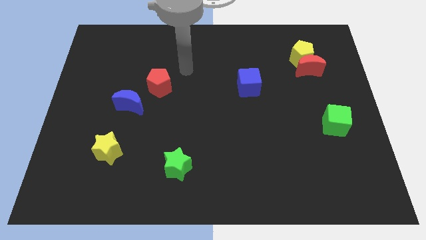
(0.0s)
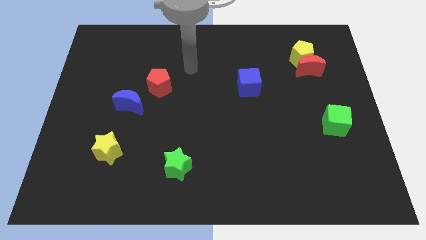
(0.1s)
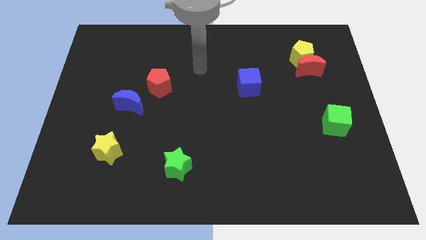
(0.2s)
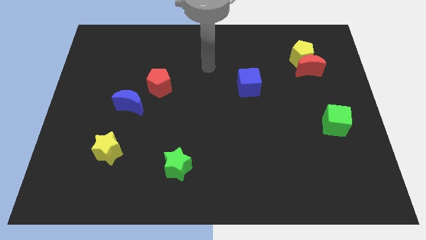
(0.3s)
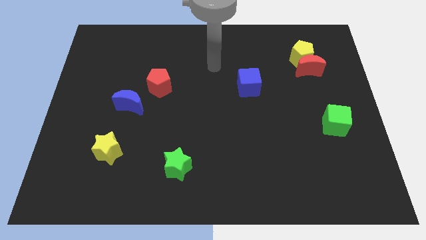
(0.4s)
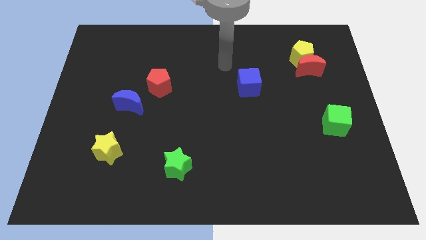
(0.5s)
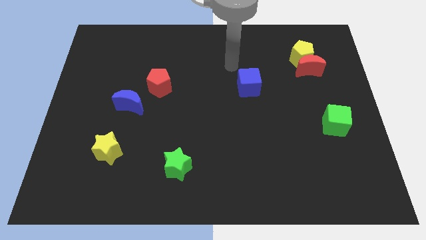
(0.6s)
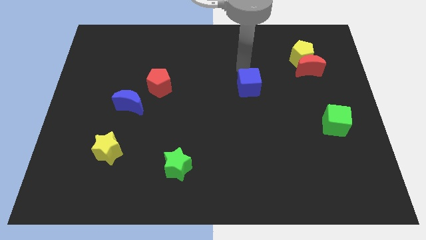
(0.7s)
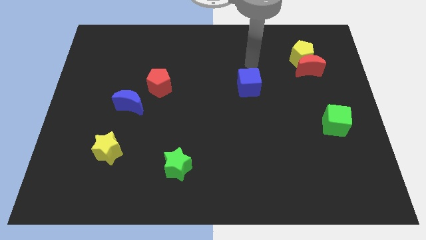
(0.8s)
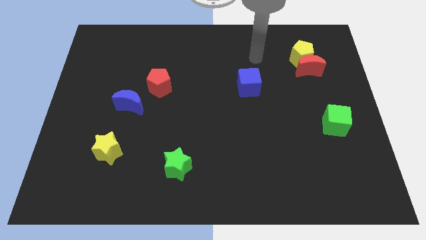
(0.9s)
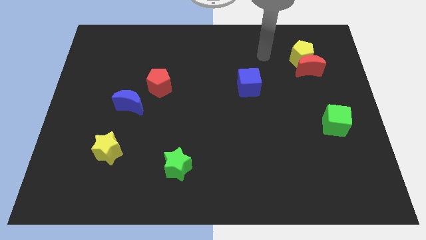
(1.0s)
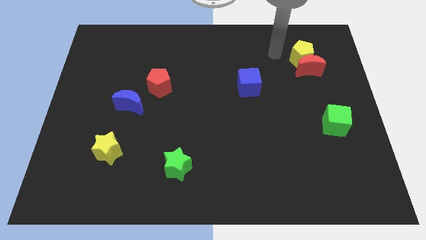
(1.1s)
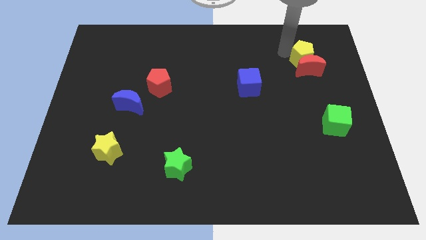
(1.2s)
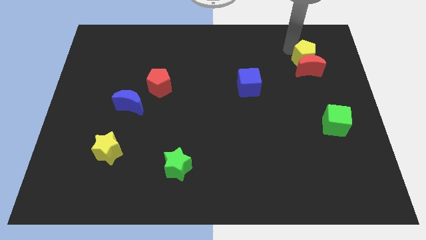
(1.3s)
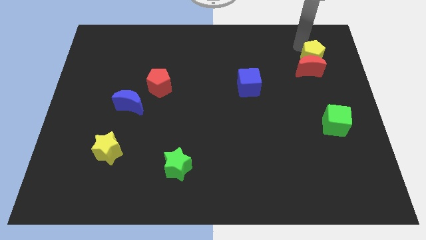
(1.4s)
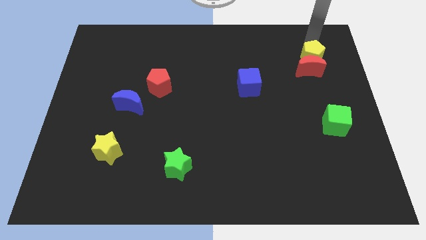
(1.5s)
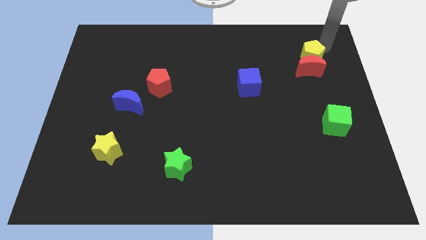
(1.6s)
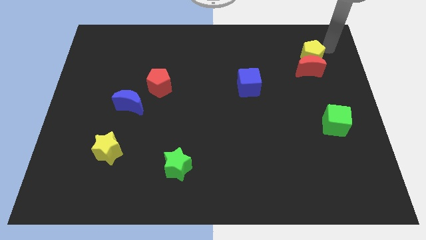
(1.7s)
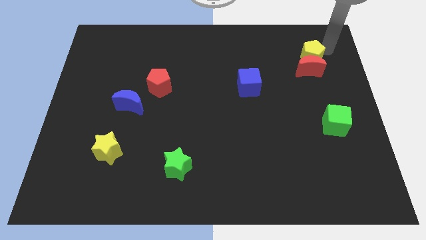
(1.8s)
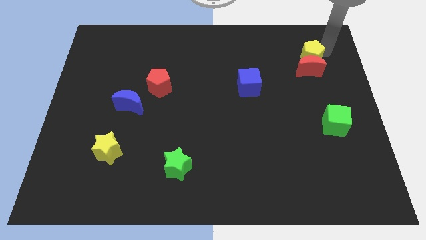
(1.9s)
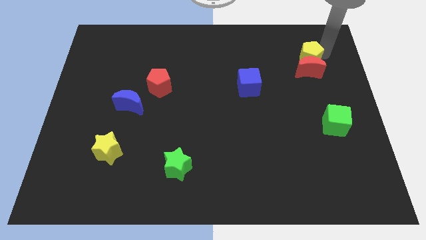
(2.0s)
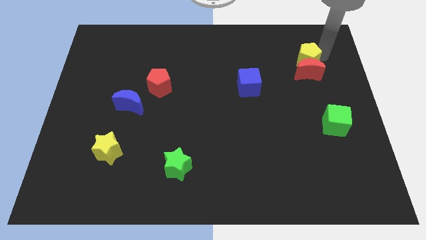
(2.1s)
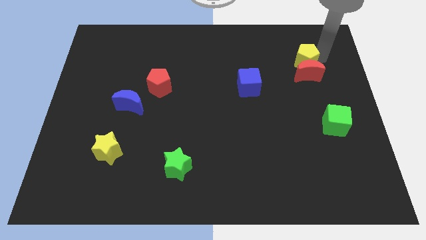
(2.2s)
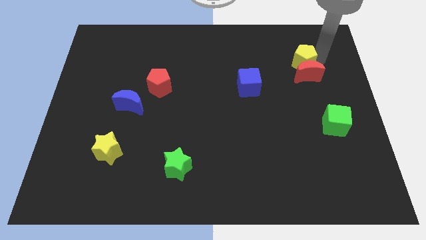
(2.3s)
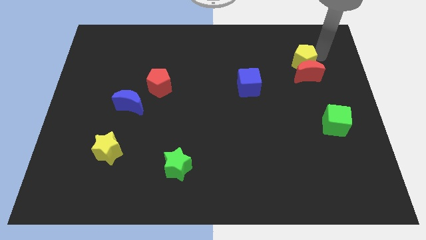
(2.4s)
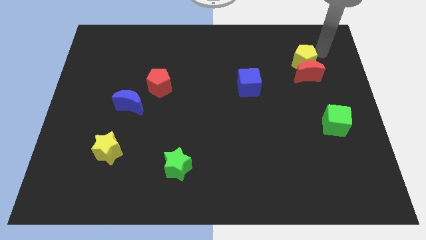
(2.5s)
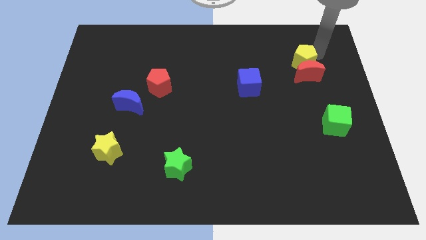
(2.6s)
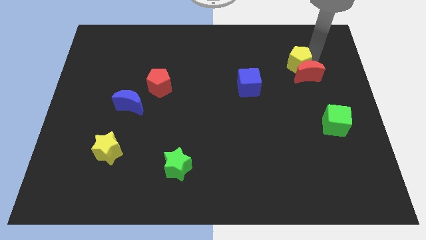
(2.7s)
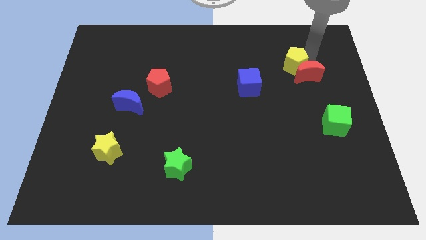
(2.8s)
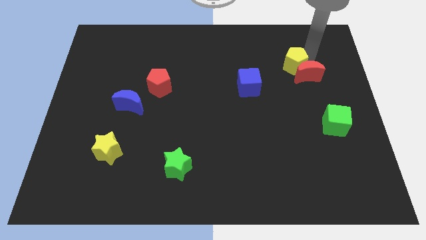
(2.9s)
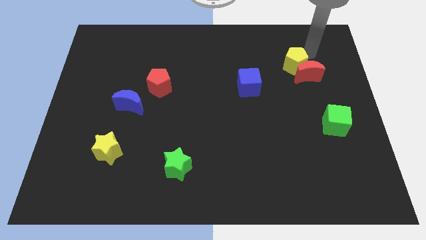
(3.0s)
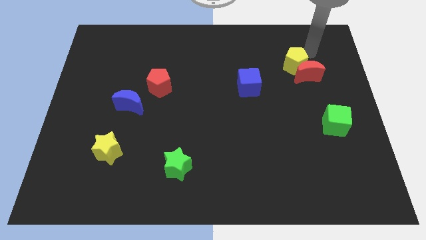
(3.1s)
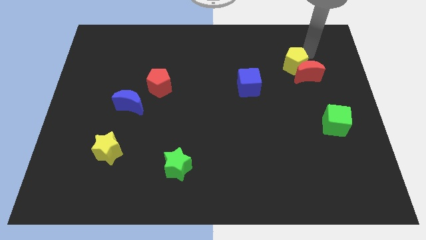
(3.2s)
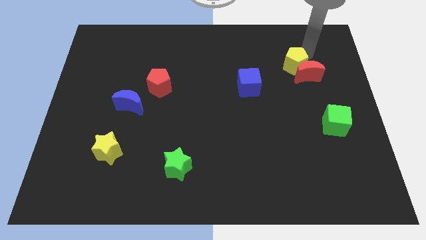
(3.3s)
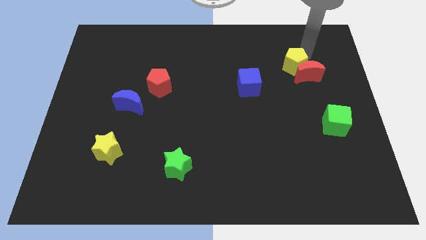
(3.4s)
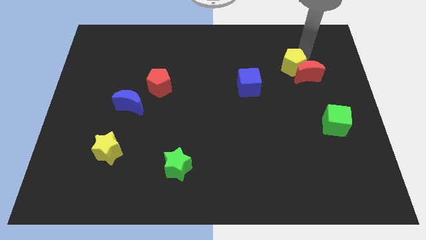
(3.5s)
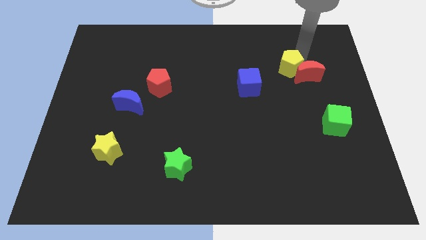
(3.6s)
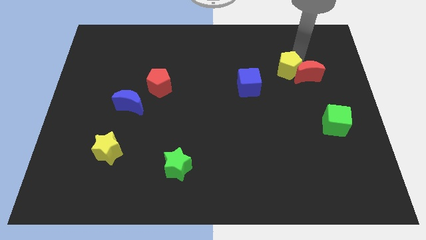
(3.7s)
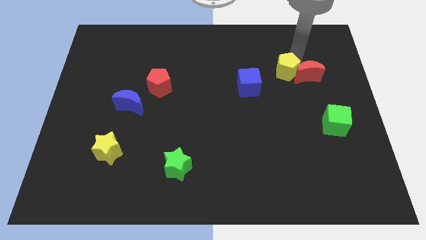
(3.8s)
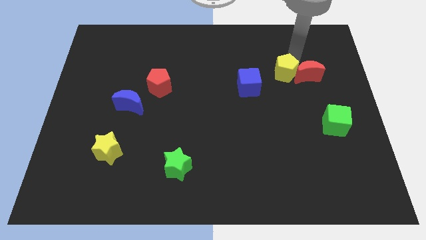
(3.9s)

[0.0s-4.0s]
push the yellow pentagon a bit downwards and left diagonally

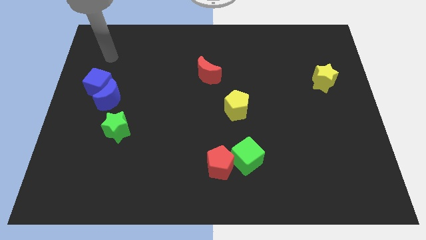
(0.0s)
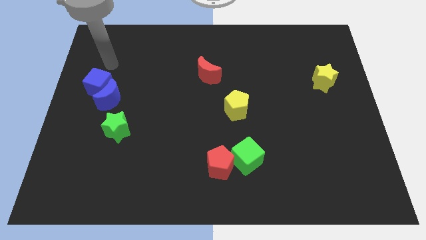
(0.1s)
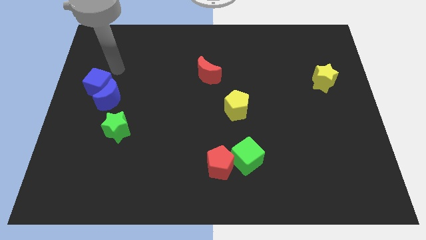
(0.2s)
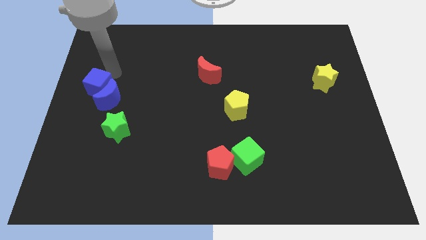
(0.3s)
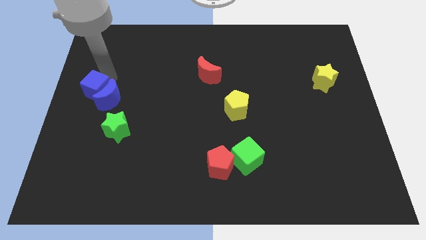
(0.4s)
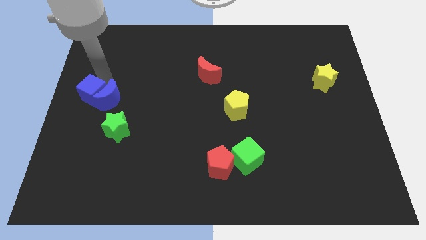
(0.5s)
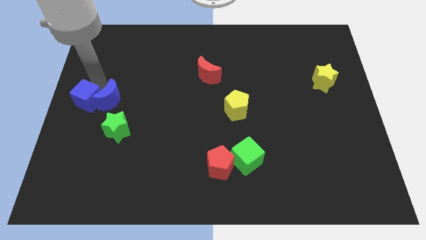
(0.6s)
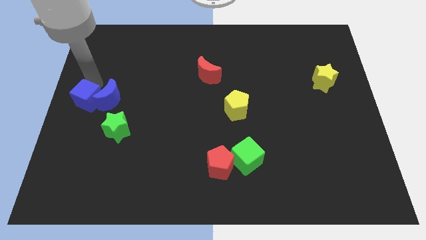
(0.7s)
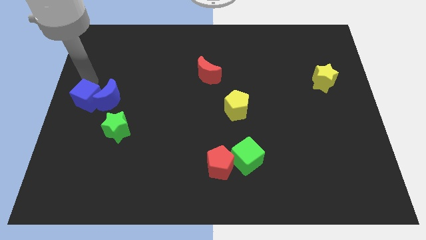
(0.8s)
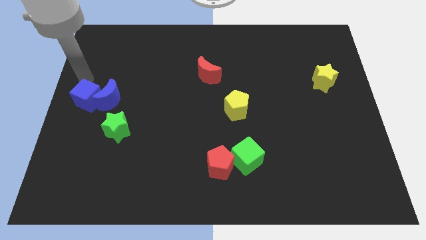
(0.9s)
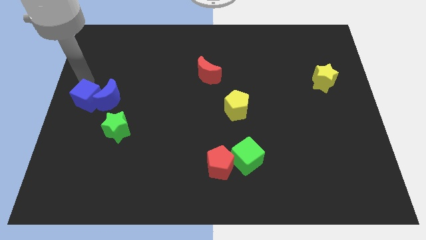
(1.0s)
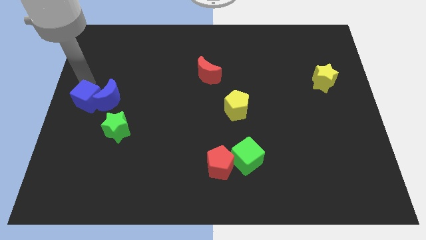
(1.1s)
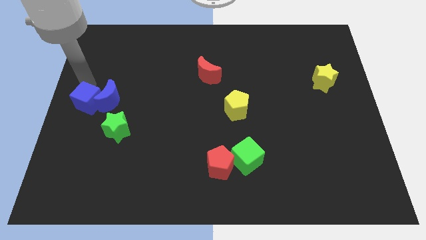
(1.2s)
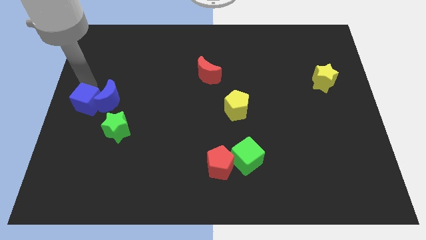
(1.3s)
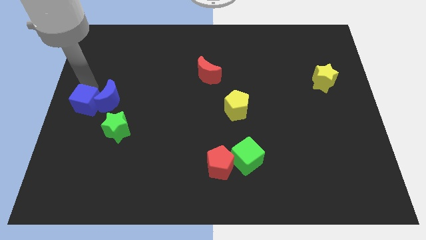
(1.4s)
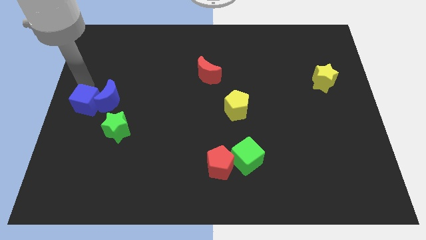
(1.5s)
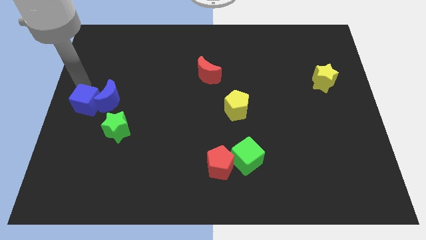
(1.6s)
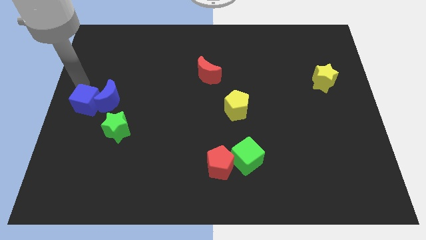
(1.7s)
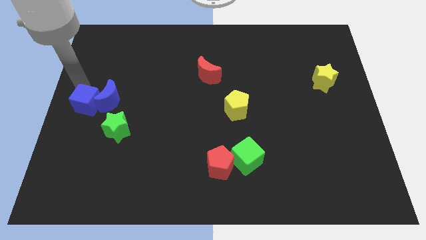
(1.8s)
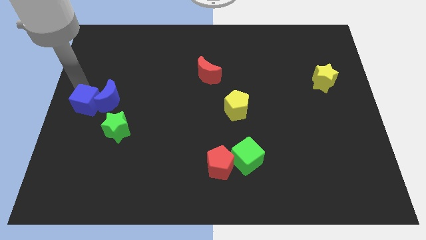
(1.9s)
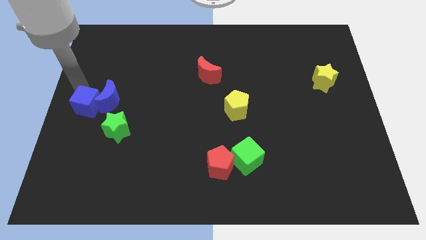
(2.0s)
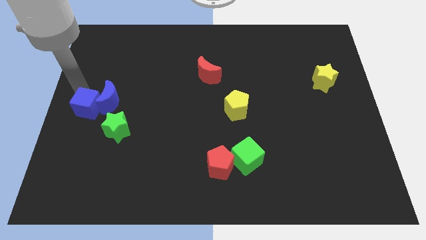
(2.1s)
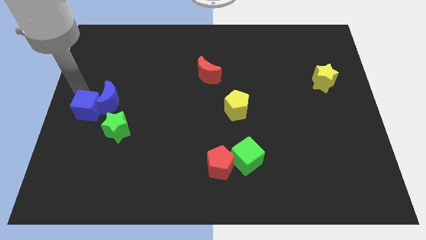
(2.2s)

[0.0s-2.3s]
slightly slide the blue cube down

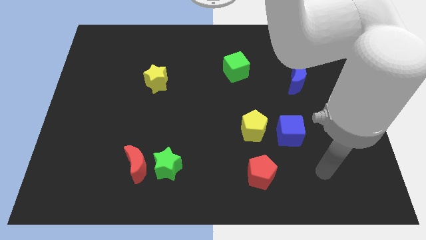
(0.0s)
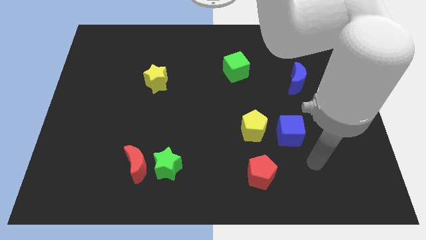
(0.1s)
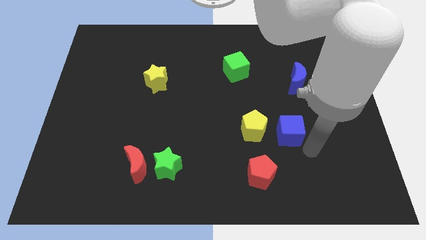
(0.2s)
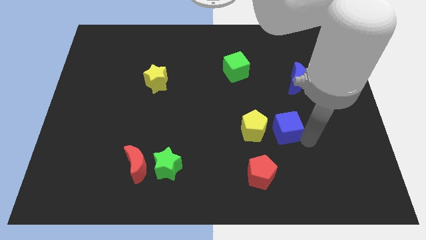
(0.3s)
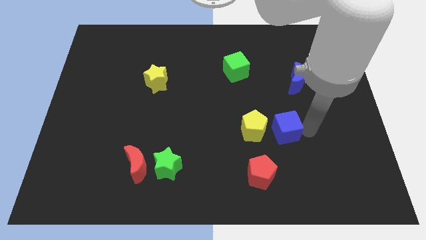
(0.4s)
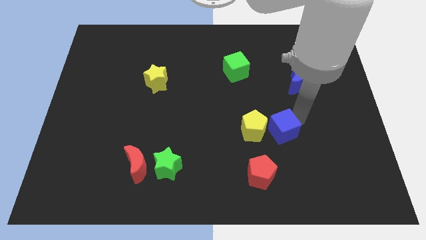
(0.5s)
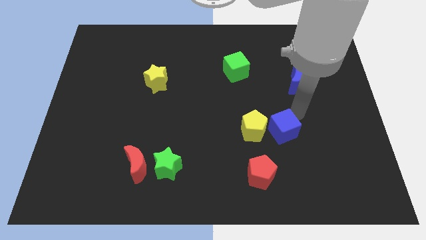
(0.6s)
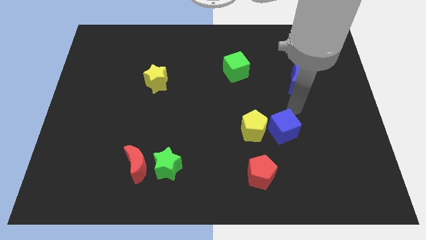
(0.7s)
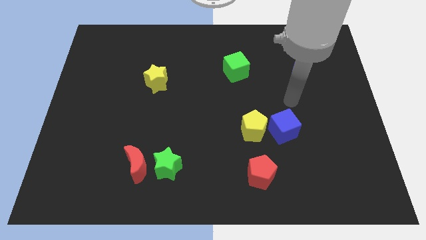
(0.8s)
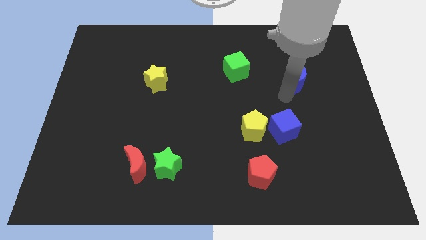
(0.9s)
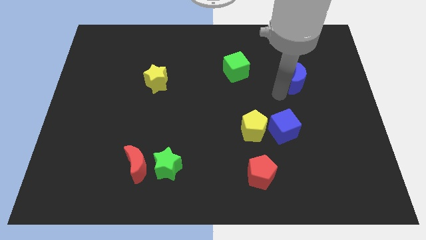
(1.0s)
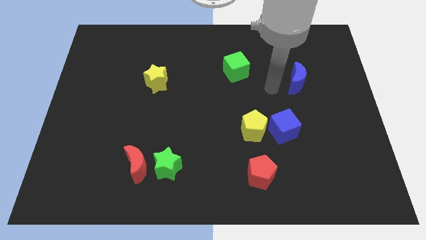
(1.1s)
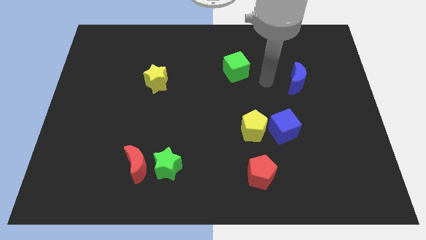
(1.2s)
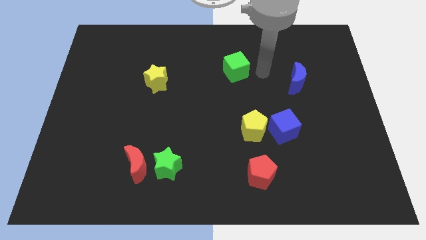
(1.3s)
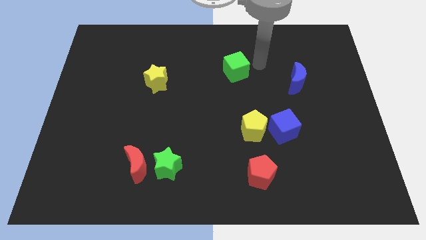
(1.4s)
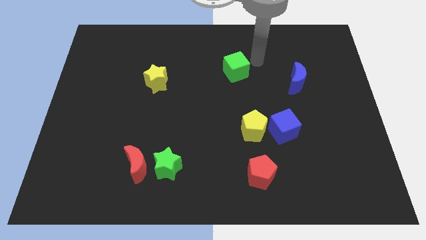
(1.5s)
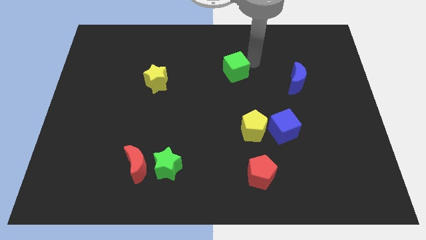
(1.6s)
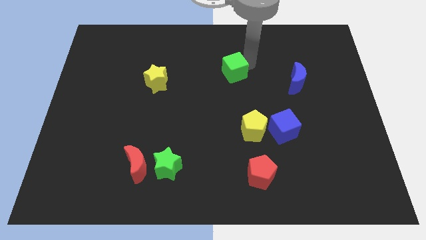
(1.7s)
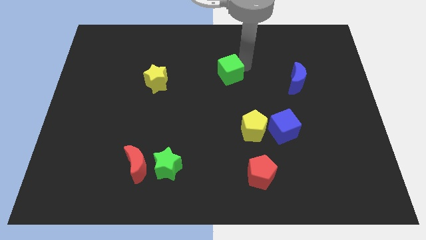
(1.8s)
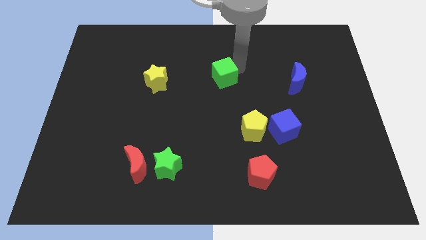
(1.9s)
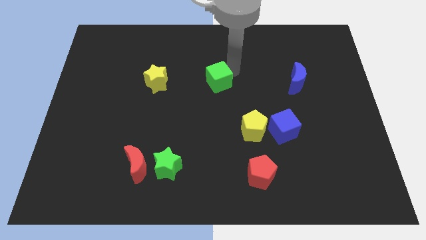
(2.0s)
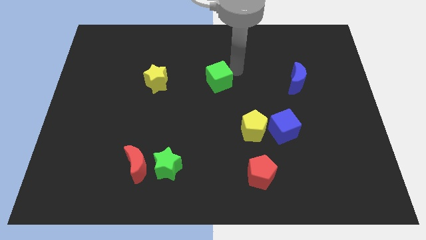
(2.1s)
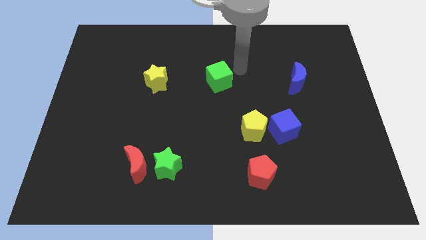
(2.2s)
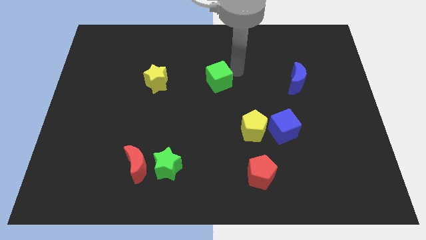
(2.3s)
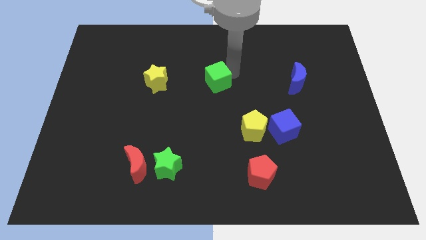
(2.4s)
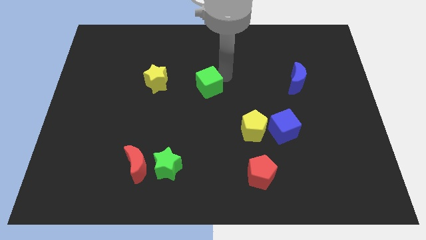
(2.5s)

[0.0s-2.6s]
move the green cube diagonally downwards and to the left slightly
